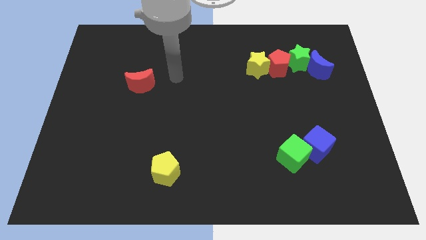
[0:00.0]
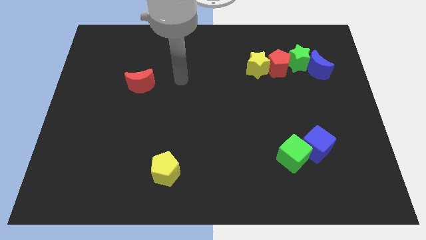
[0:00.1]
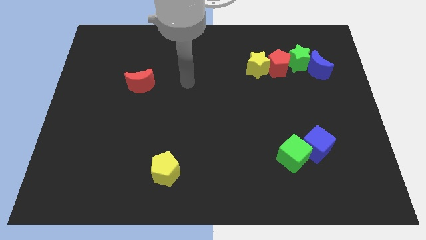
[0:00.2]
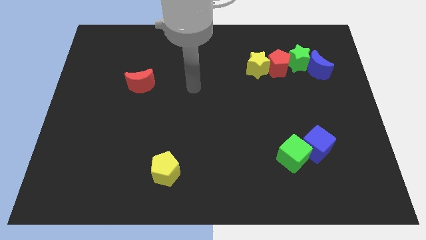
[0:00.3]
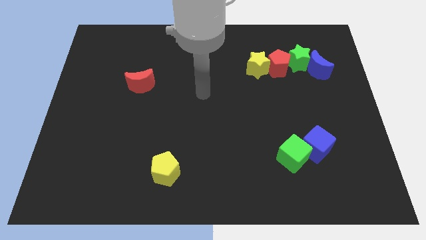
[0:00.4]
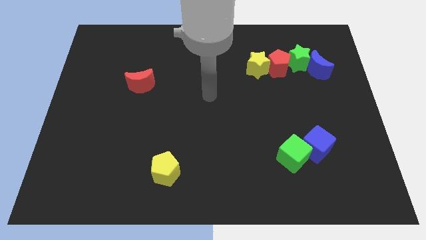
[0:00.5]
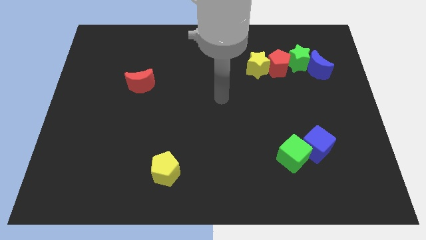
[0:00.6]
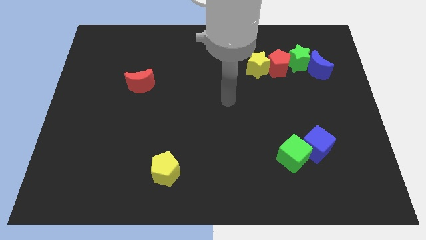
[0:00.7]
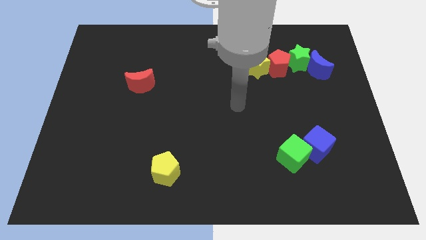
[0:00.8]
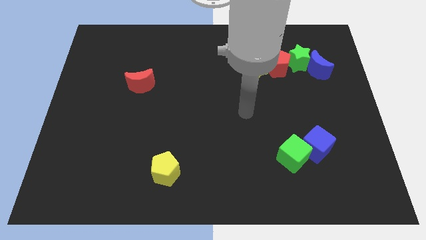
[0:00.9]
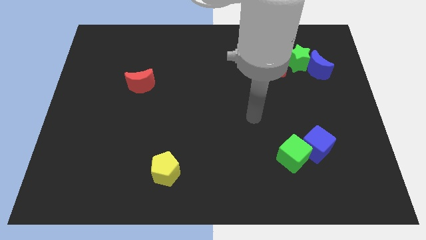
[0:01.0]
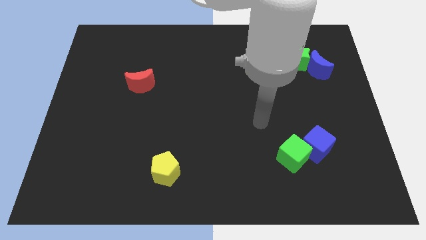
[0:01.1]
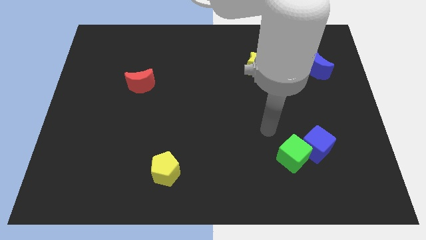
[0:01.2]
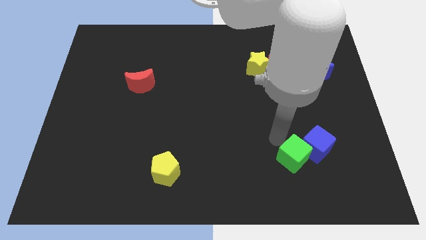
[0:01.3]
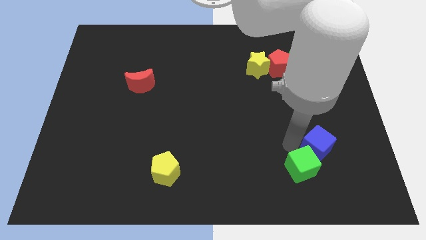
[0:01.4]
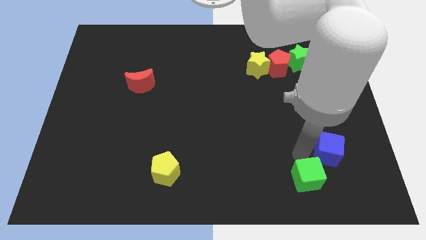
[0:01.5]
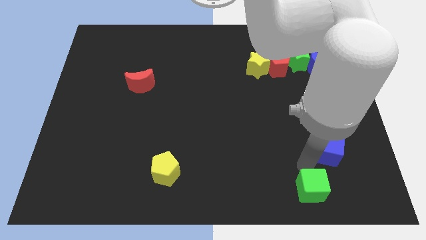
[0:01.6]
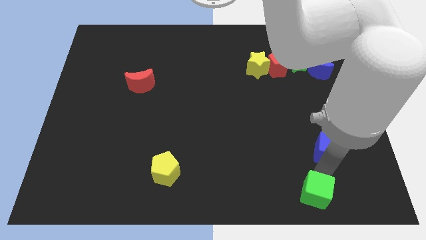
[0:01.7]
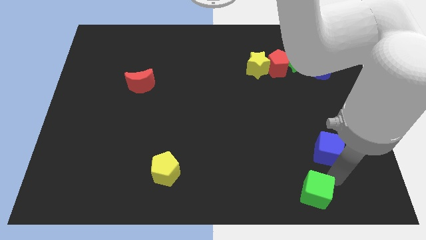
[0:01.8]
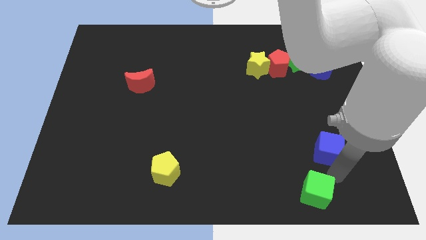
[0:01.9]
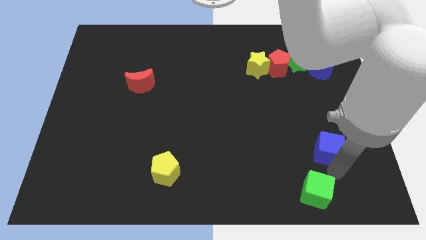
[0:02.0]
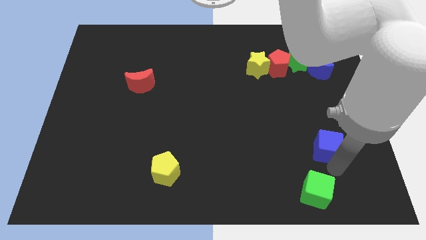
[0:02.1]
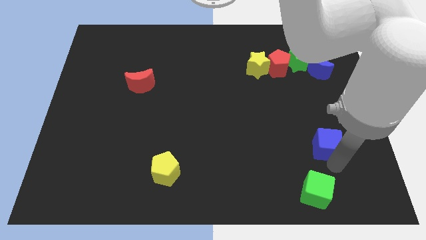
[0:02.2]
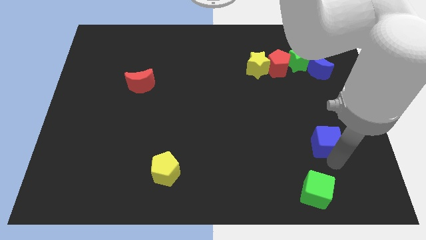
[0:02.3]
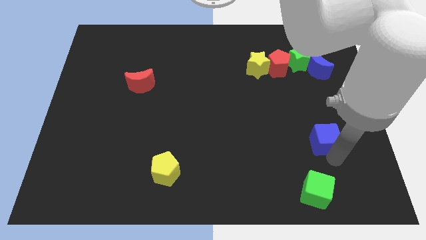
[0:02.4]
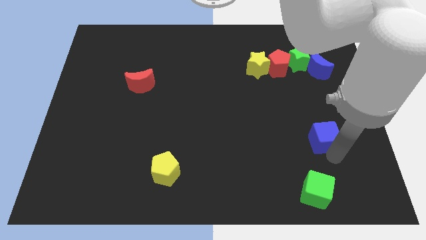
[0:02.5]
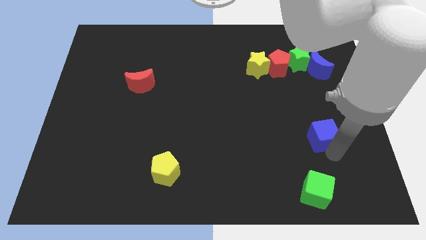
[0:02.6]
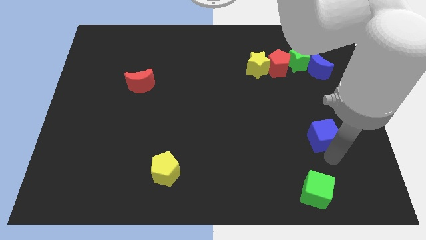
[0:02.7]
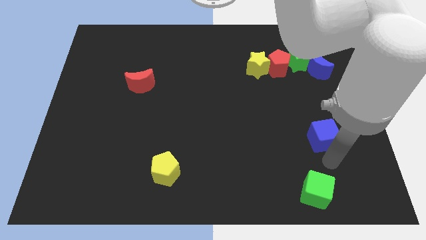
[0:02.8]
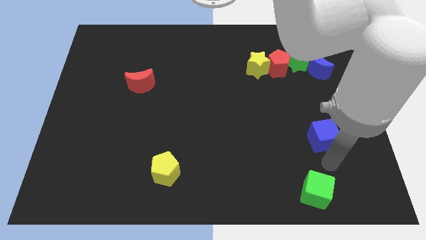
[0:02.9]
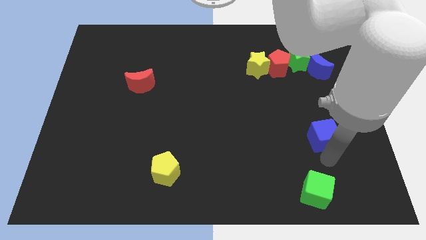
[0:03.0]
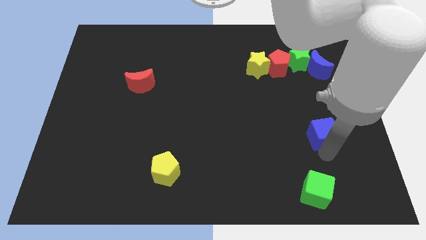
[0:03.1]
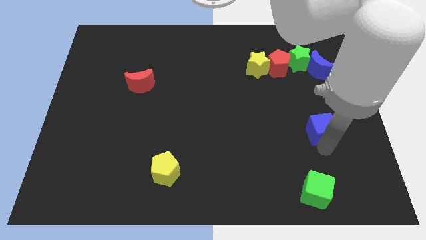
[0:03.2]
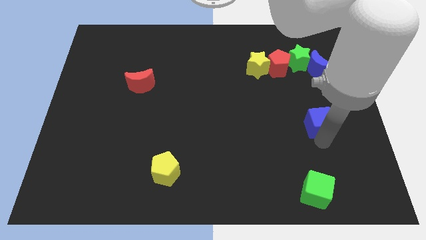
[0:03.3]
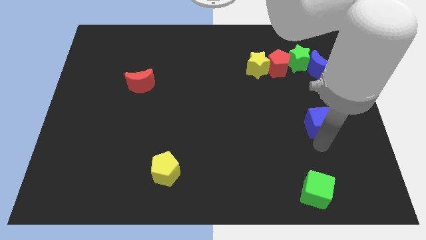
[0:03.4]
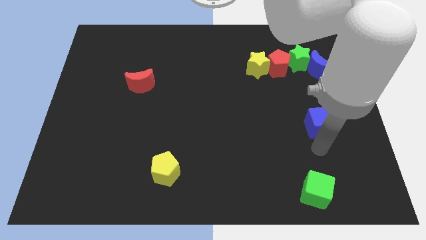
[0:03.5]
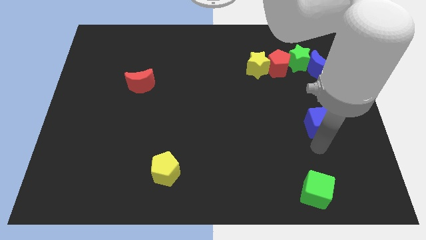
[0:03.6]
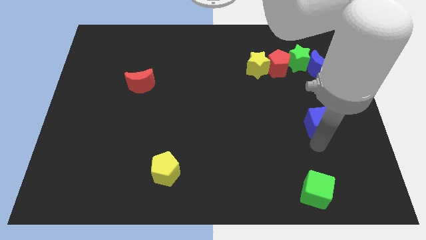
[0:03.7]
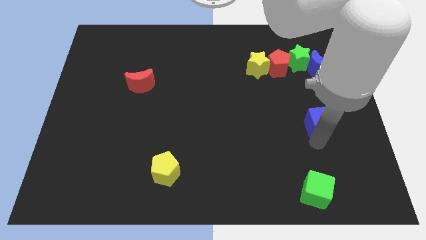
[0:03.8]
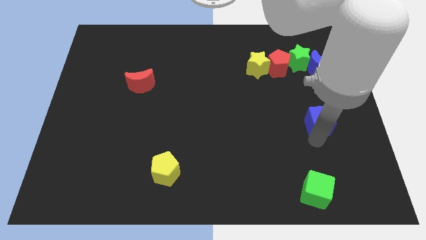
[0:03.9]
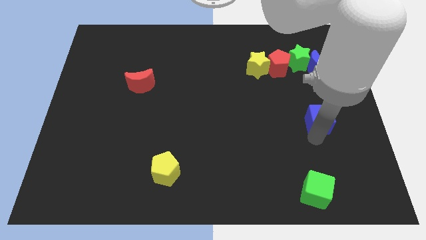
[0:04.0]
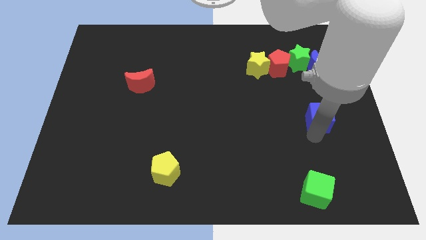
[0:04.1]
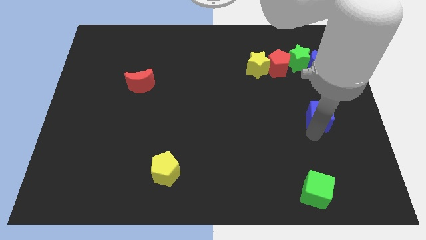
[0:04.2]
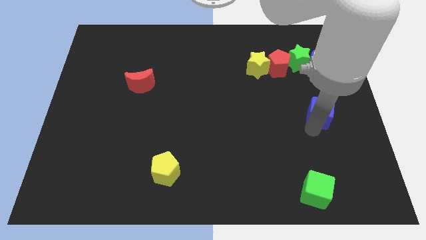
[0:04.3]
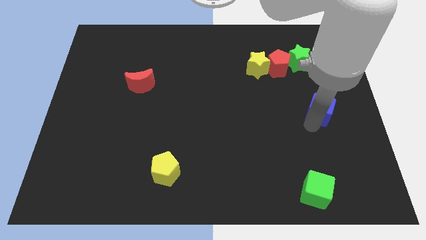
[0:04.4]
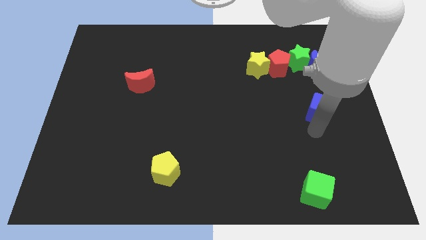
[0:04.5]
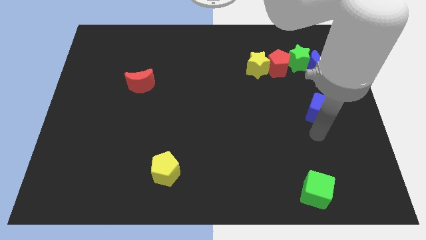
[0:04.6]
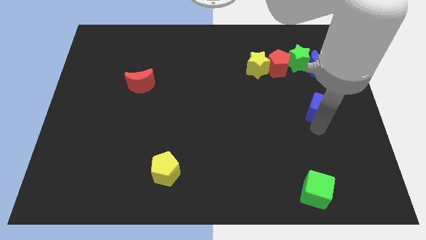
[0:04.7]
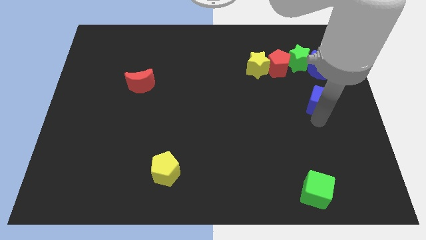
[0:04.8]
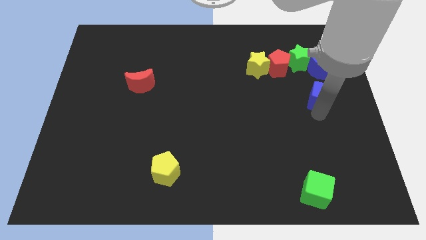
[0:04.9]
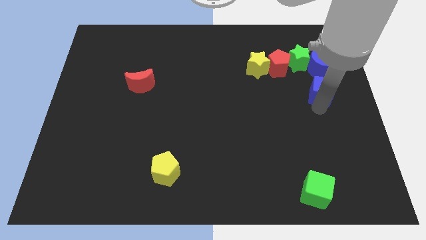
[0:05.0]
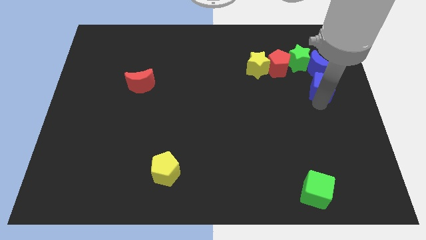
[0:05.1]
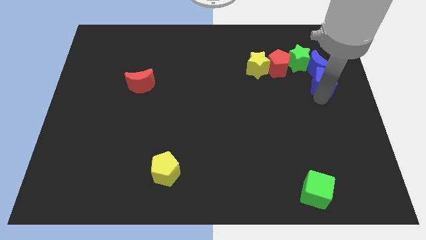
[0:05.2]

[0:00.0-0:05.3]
push the blue cube towards the blue moon

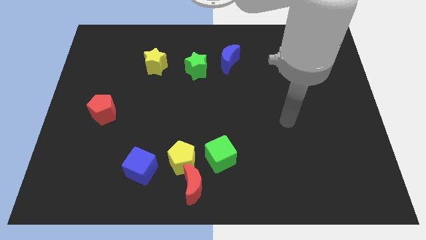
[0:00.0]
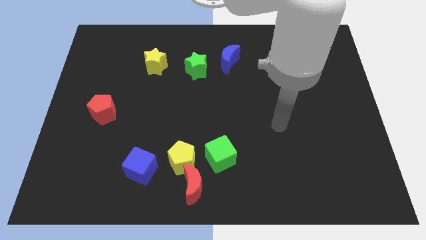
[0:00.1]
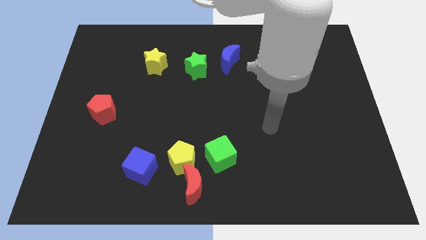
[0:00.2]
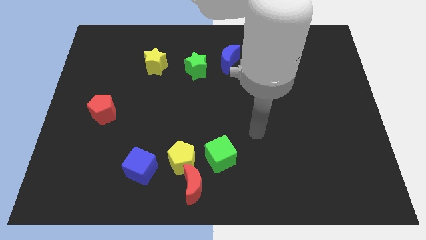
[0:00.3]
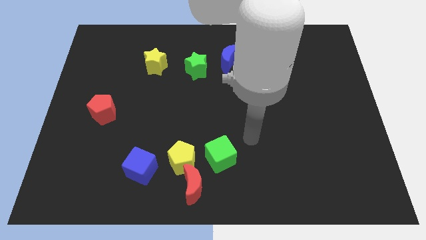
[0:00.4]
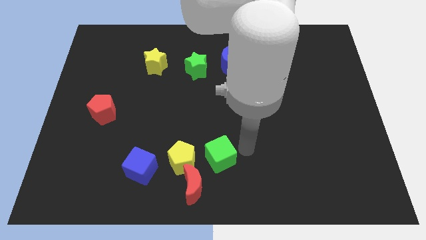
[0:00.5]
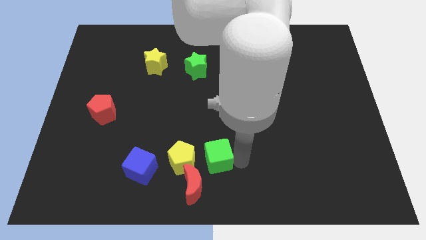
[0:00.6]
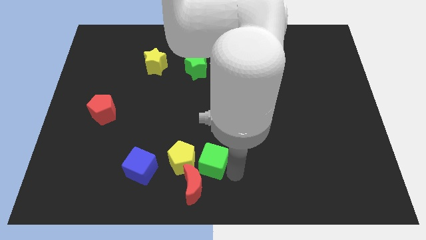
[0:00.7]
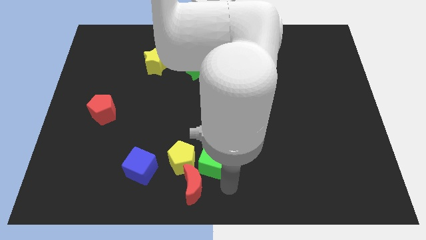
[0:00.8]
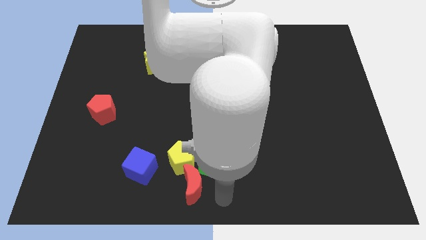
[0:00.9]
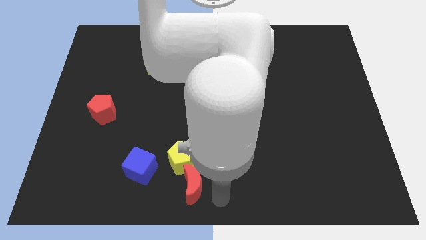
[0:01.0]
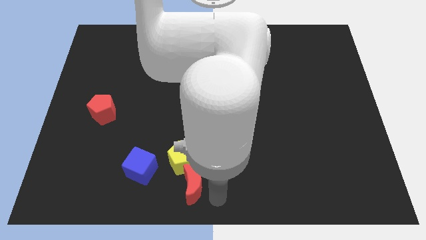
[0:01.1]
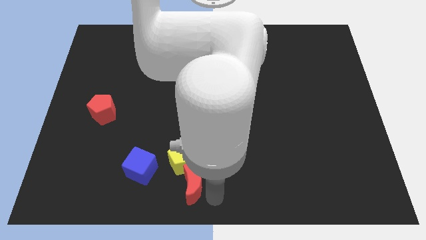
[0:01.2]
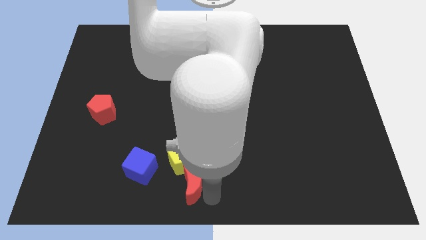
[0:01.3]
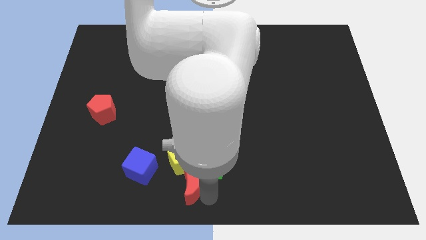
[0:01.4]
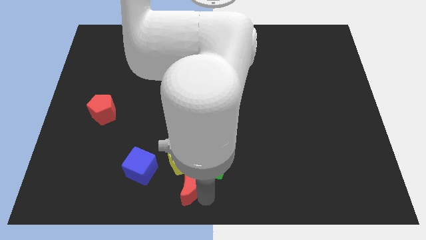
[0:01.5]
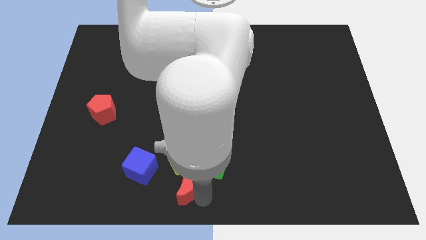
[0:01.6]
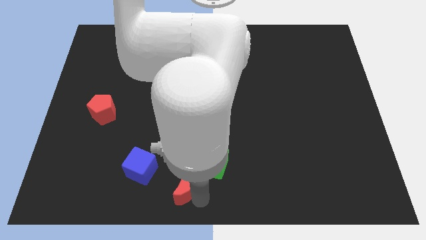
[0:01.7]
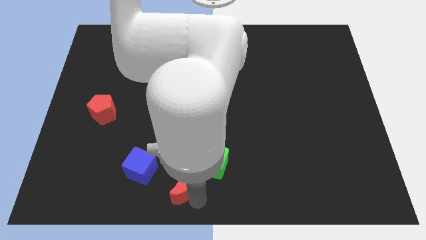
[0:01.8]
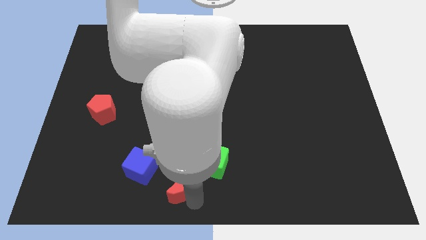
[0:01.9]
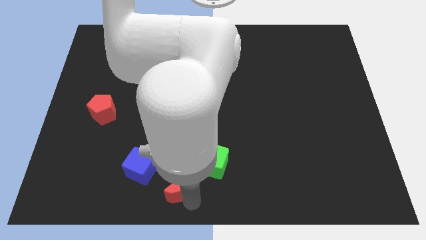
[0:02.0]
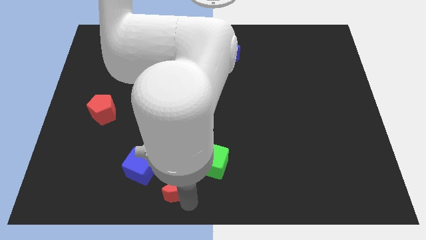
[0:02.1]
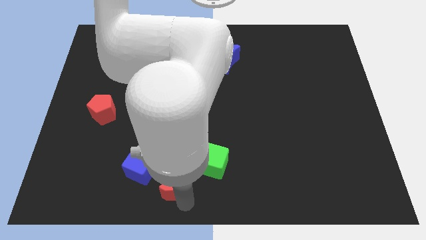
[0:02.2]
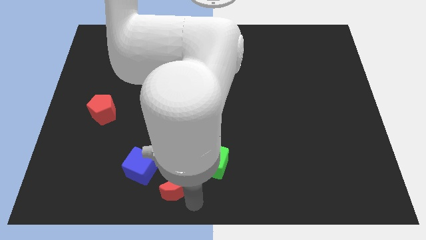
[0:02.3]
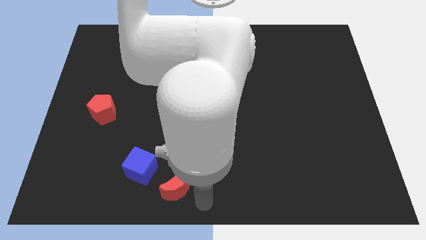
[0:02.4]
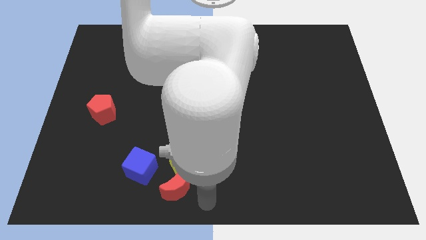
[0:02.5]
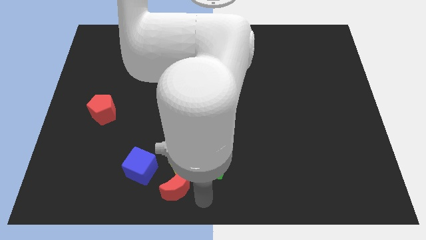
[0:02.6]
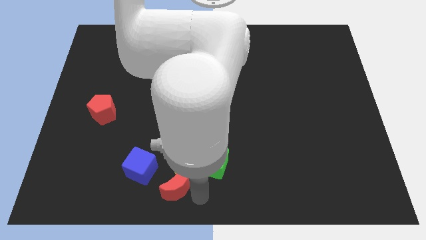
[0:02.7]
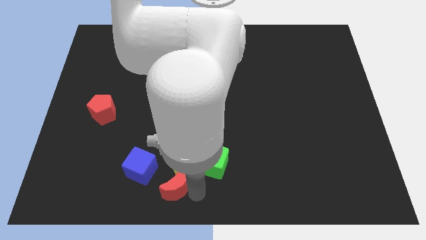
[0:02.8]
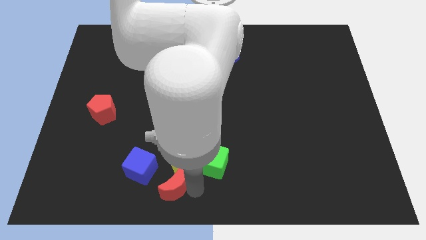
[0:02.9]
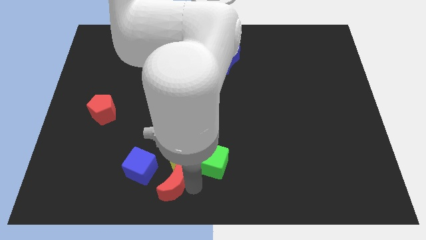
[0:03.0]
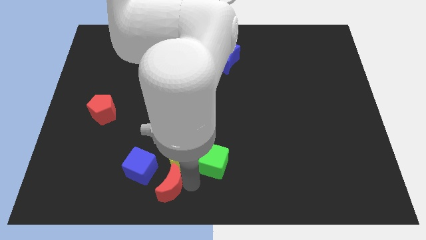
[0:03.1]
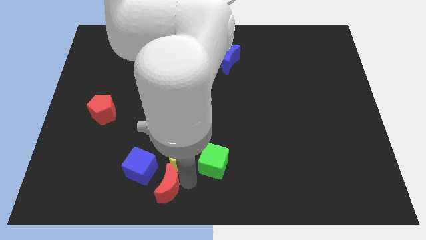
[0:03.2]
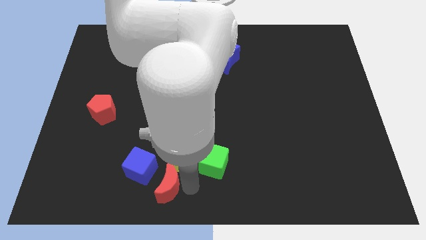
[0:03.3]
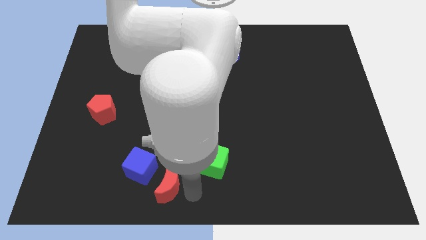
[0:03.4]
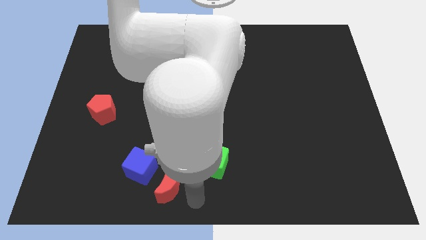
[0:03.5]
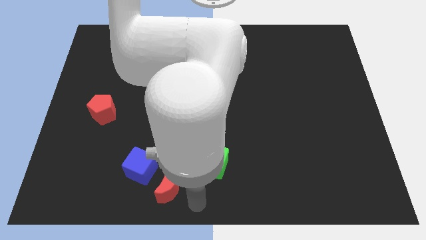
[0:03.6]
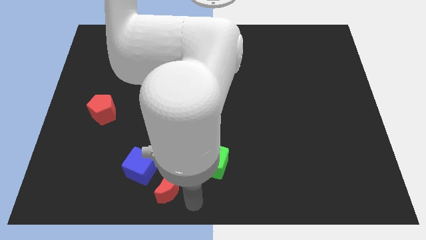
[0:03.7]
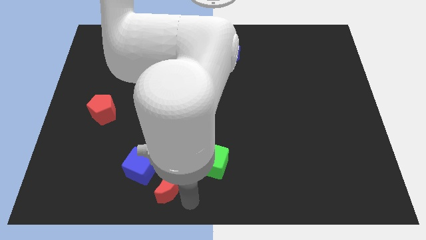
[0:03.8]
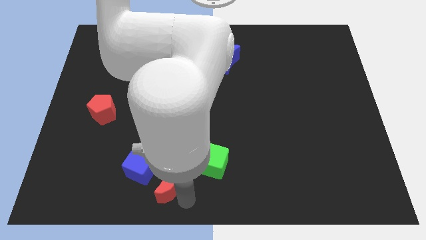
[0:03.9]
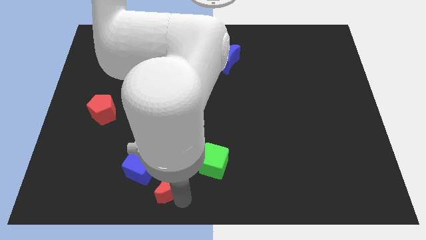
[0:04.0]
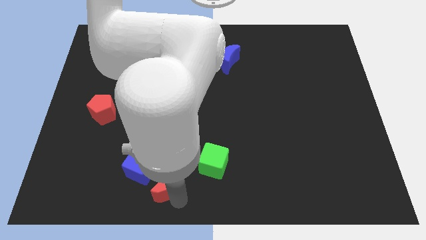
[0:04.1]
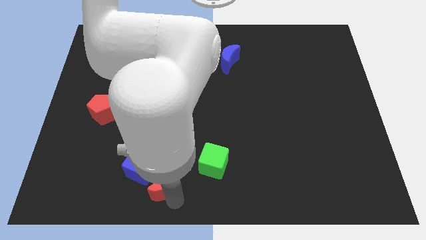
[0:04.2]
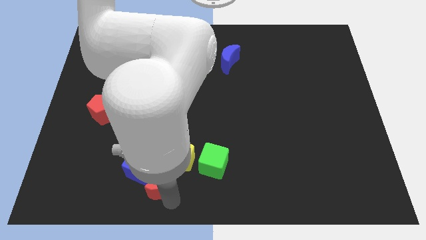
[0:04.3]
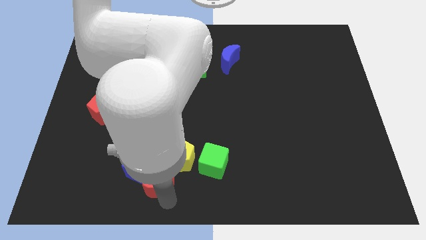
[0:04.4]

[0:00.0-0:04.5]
move the red moon close to the blue cube
